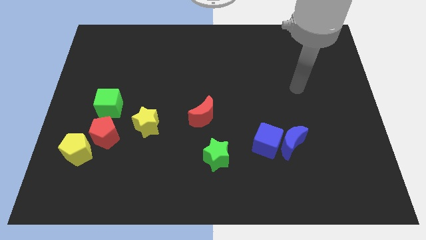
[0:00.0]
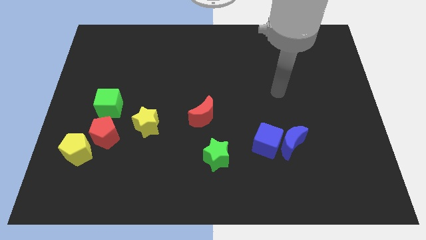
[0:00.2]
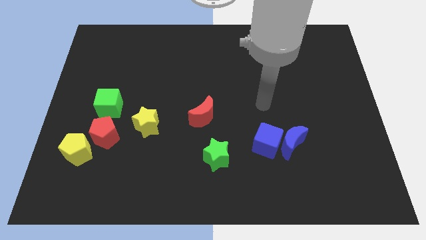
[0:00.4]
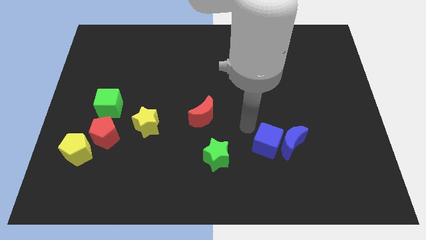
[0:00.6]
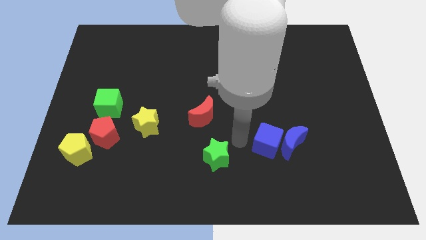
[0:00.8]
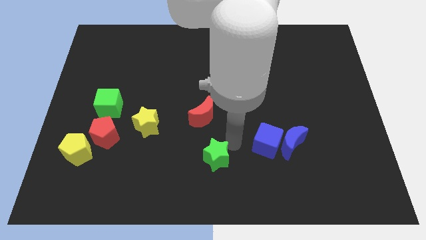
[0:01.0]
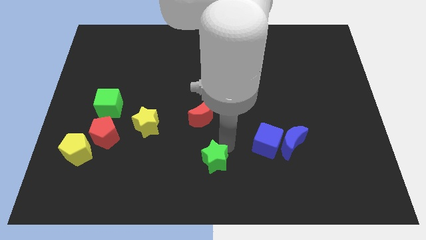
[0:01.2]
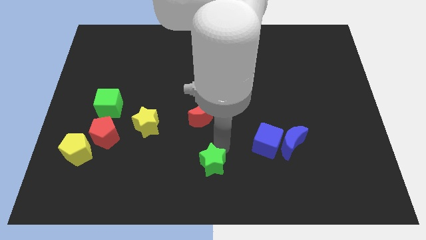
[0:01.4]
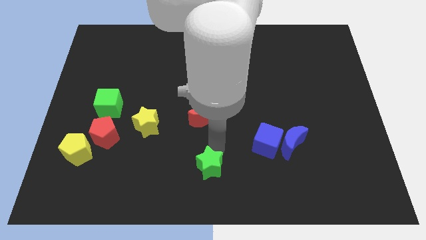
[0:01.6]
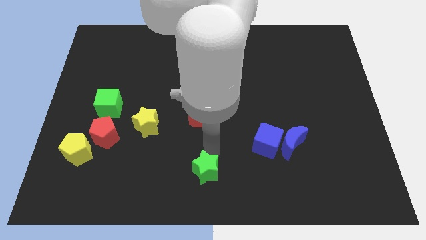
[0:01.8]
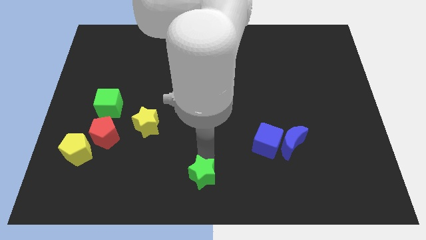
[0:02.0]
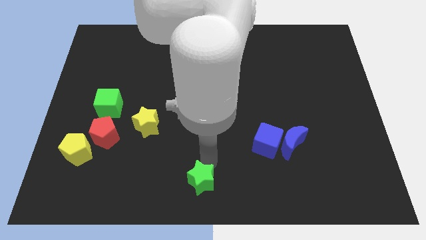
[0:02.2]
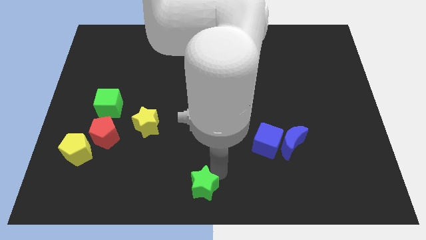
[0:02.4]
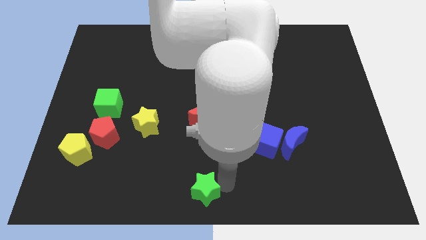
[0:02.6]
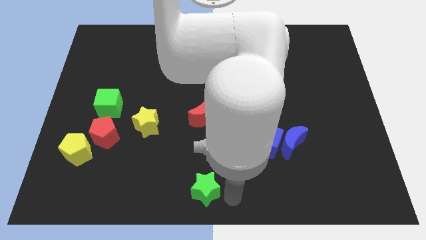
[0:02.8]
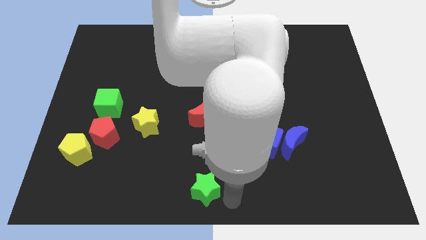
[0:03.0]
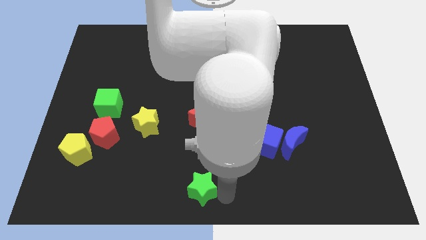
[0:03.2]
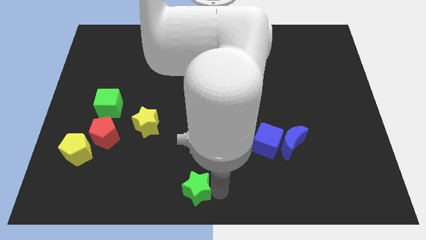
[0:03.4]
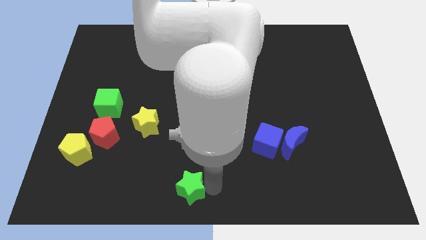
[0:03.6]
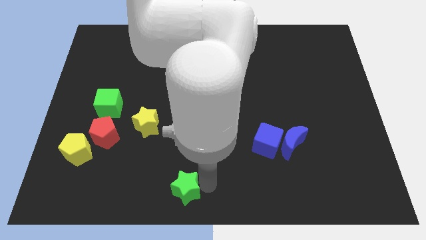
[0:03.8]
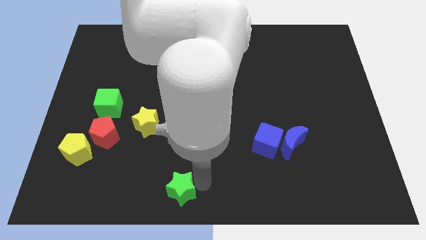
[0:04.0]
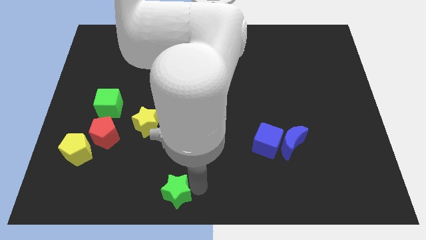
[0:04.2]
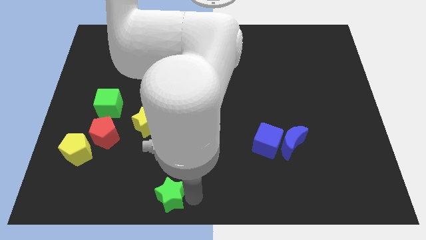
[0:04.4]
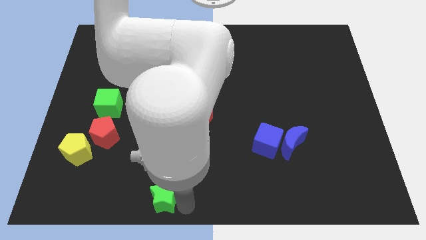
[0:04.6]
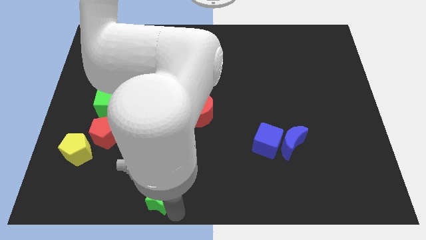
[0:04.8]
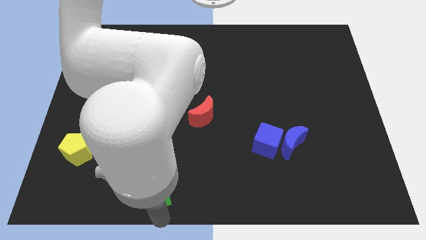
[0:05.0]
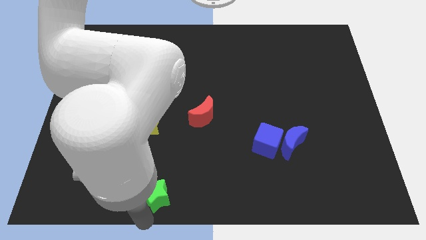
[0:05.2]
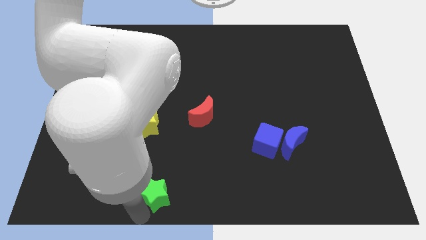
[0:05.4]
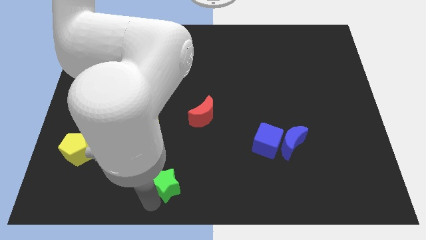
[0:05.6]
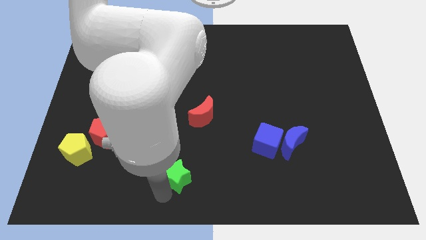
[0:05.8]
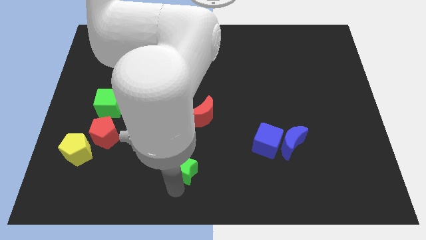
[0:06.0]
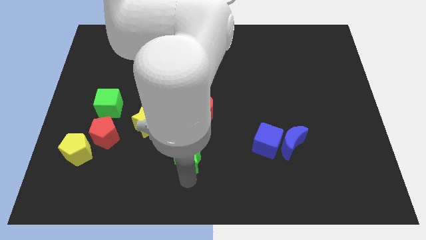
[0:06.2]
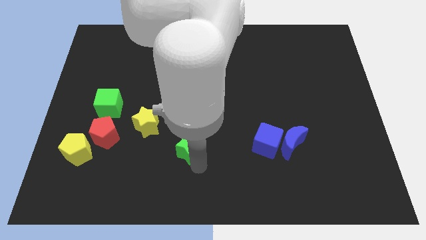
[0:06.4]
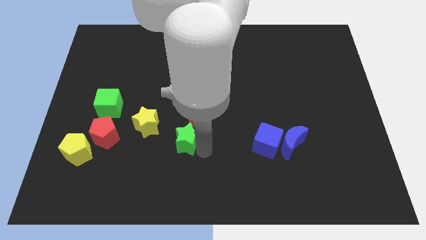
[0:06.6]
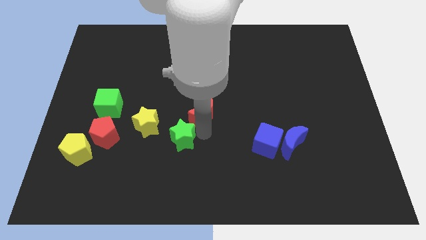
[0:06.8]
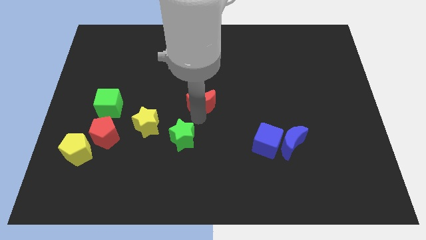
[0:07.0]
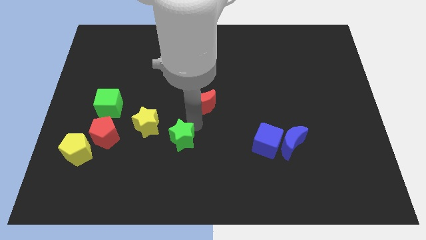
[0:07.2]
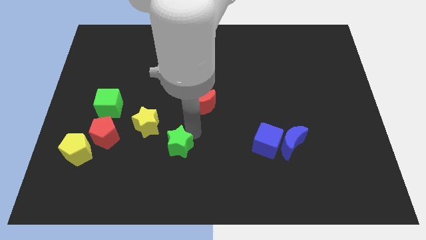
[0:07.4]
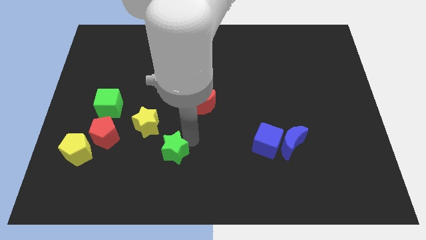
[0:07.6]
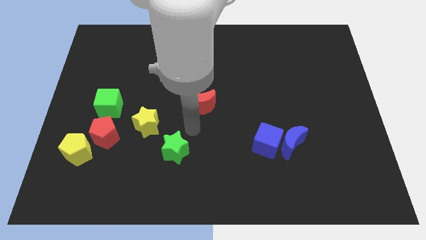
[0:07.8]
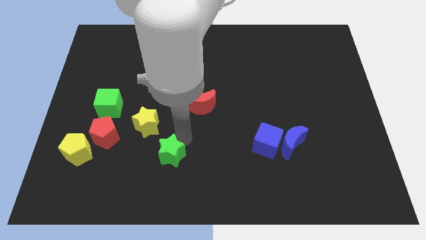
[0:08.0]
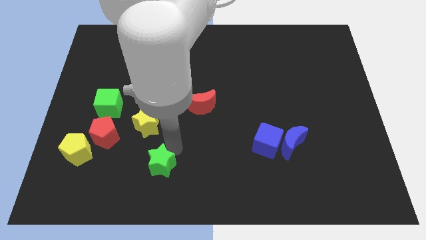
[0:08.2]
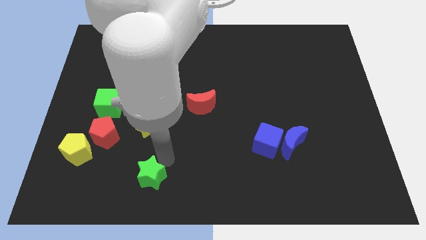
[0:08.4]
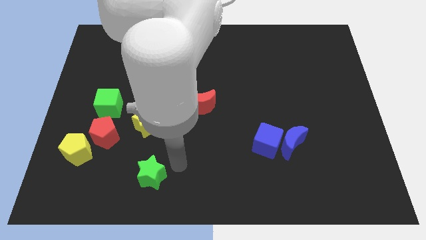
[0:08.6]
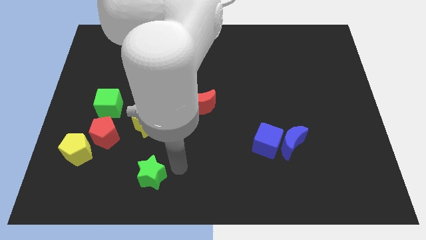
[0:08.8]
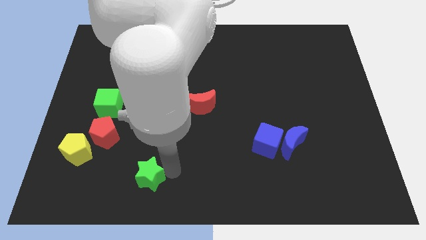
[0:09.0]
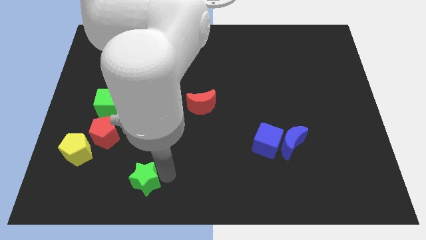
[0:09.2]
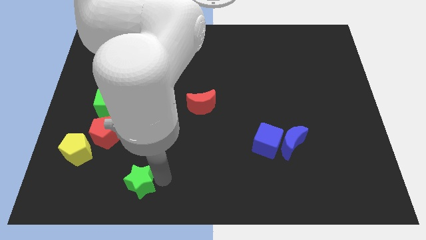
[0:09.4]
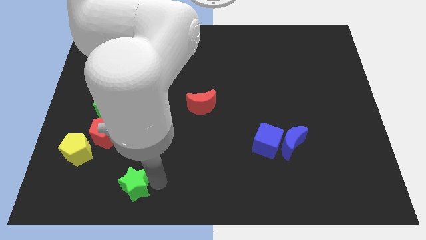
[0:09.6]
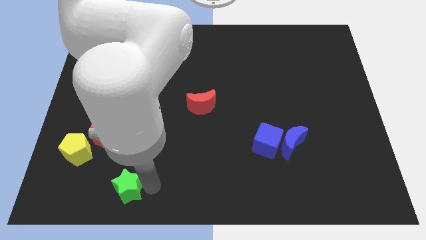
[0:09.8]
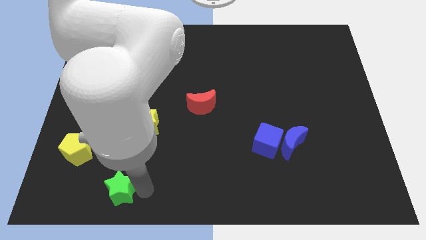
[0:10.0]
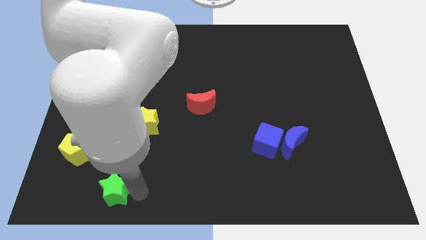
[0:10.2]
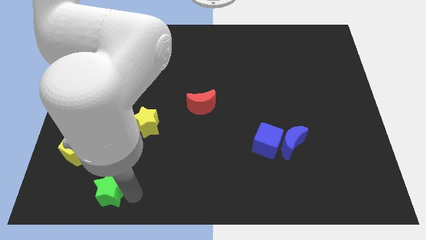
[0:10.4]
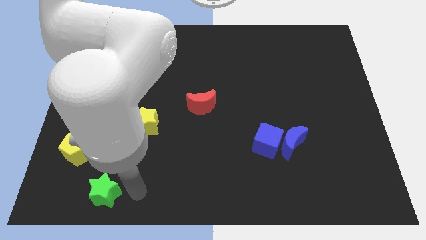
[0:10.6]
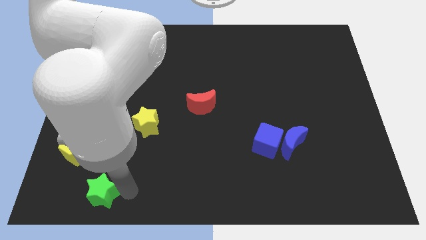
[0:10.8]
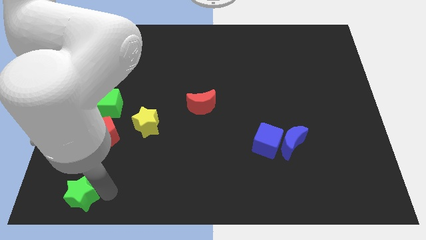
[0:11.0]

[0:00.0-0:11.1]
slide the green star to the bottom left of the board
